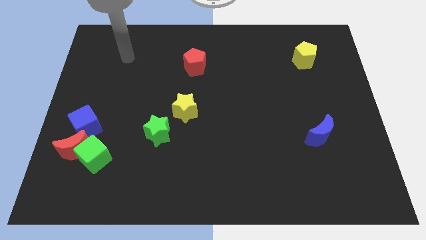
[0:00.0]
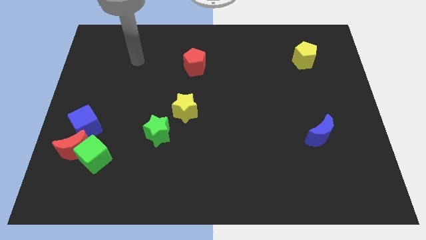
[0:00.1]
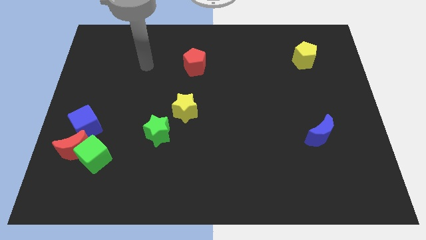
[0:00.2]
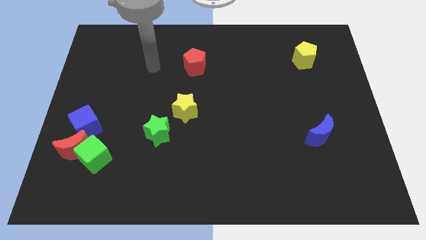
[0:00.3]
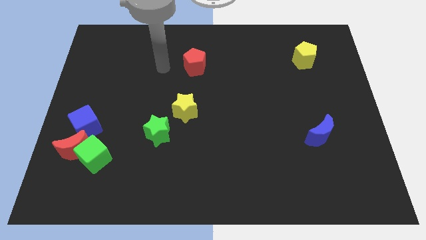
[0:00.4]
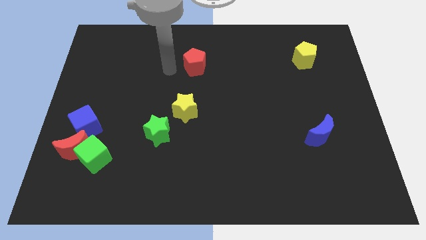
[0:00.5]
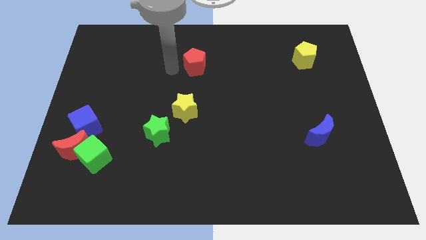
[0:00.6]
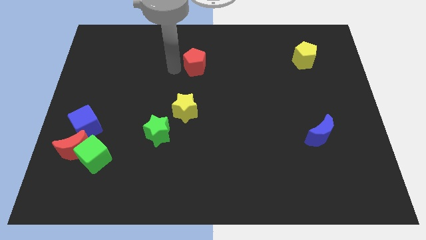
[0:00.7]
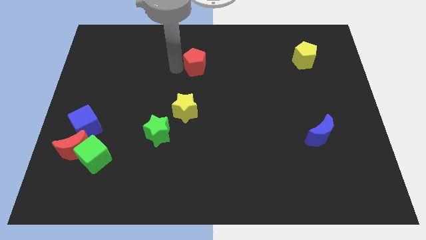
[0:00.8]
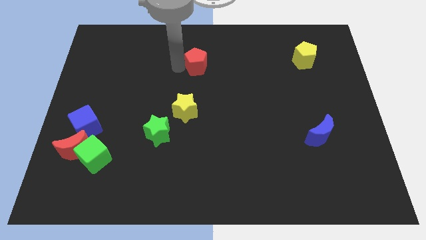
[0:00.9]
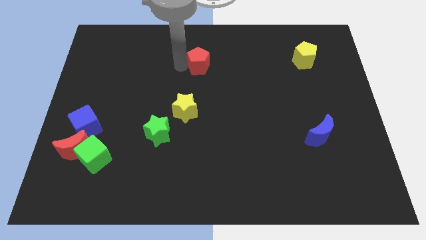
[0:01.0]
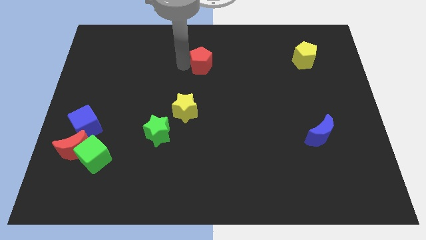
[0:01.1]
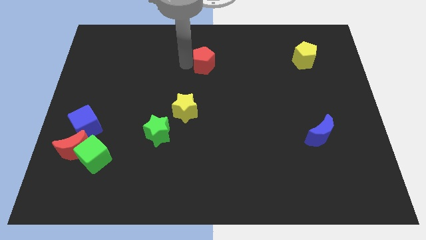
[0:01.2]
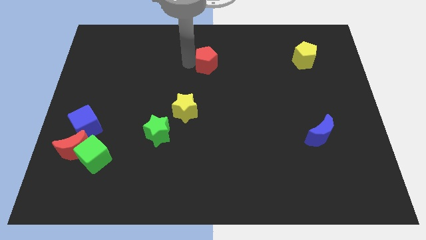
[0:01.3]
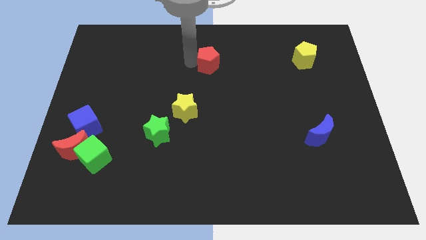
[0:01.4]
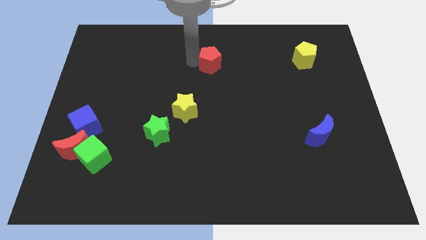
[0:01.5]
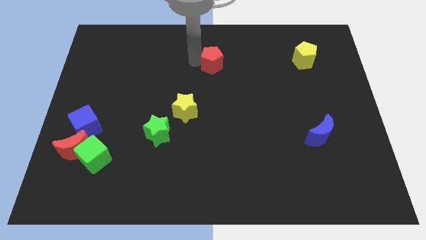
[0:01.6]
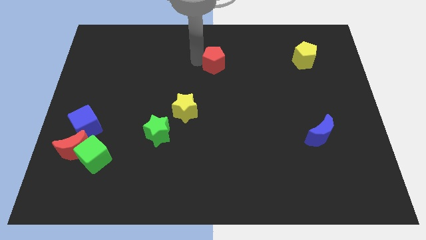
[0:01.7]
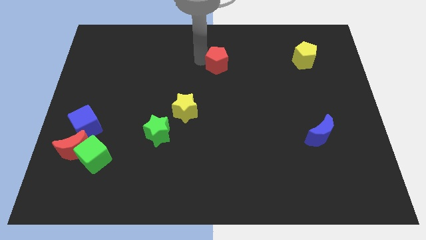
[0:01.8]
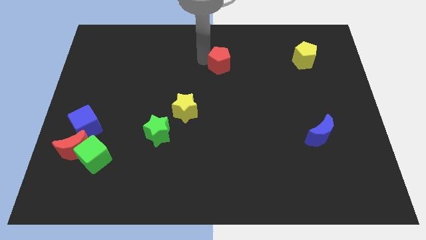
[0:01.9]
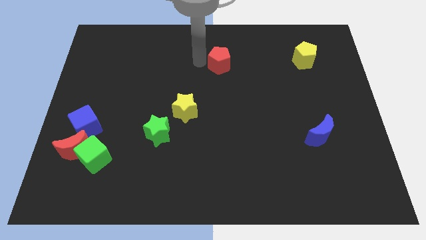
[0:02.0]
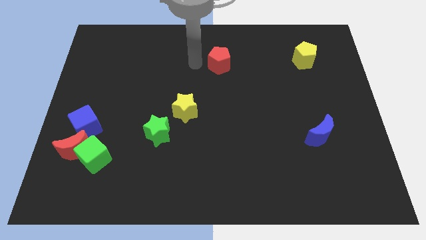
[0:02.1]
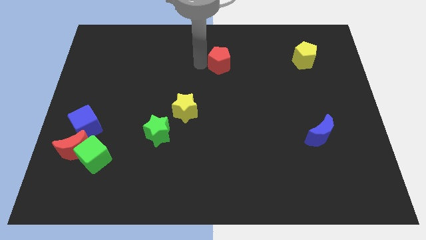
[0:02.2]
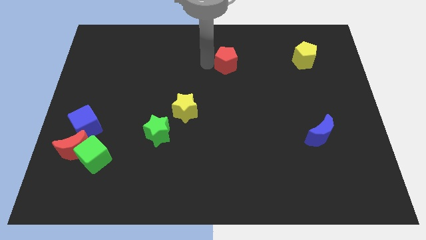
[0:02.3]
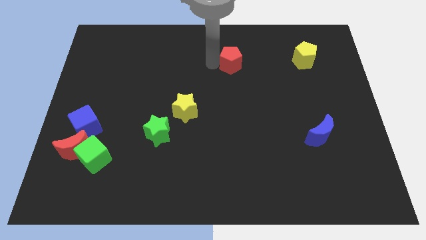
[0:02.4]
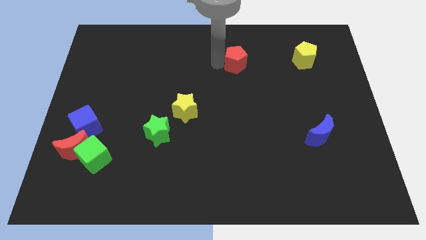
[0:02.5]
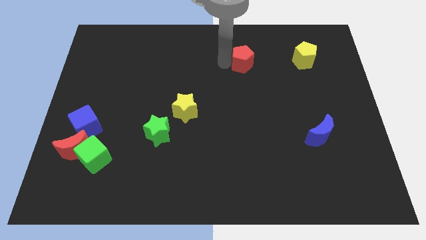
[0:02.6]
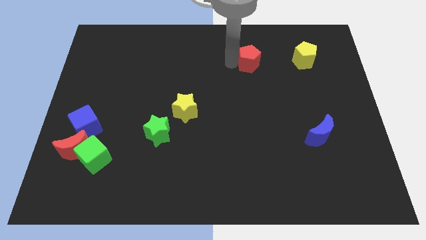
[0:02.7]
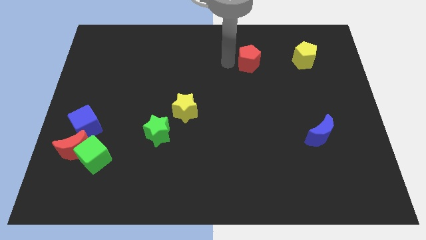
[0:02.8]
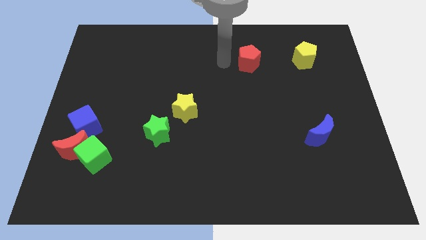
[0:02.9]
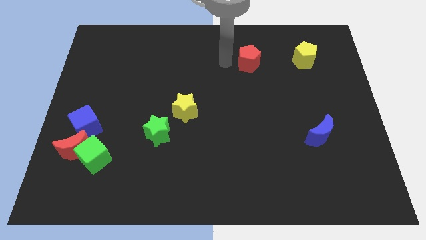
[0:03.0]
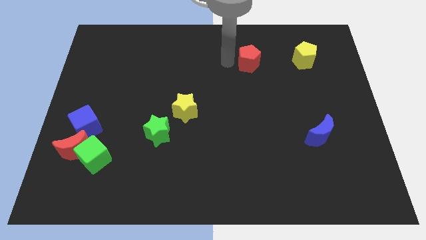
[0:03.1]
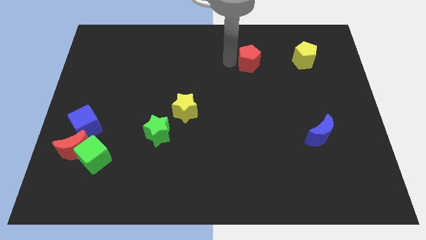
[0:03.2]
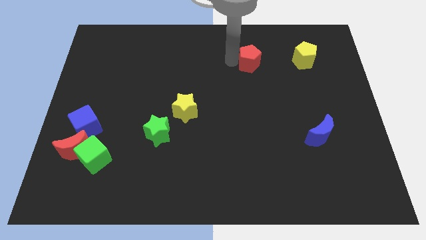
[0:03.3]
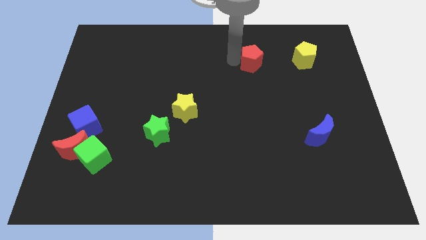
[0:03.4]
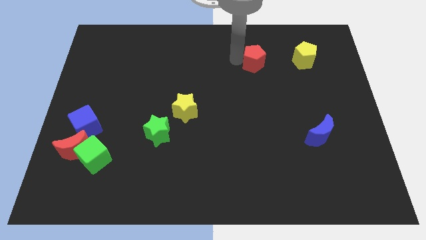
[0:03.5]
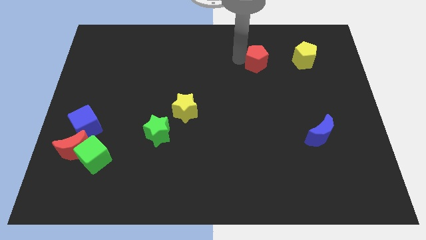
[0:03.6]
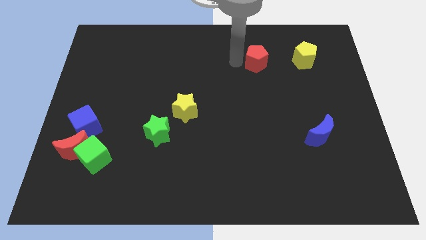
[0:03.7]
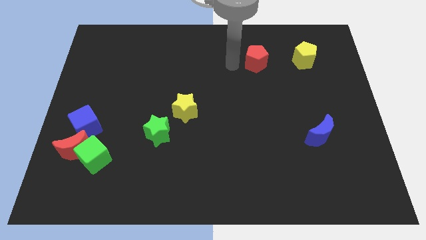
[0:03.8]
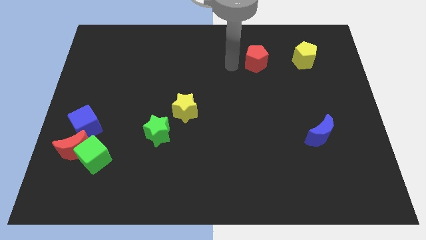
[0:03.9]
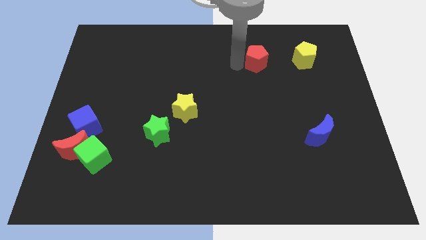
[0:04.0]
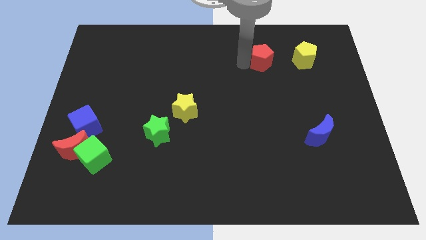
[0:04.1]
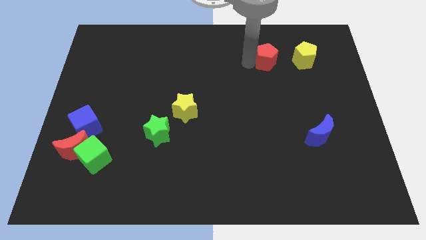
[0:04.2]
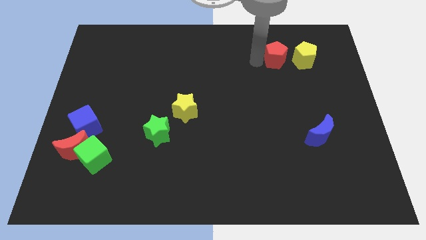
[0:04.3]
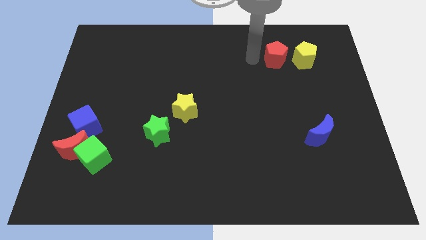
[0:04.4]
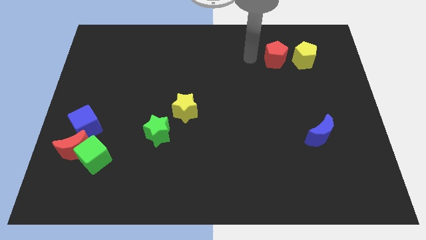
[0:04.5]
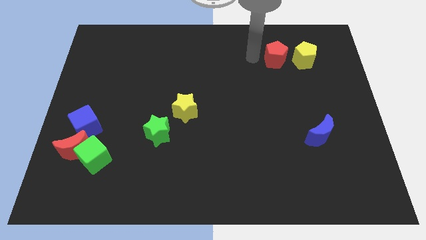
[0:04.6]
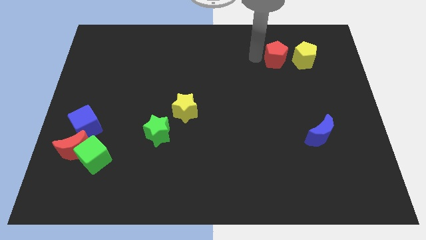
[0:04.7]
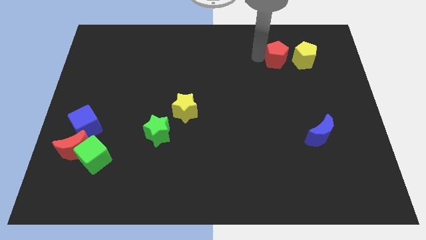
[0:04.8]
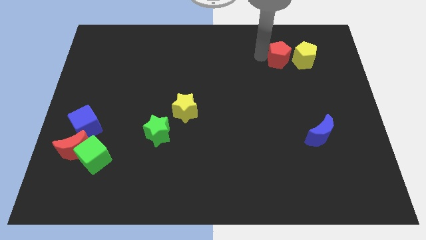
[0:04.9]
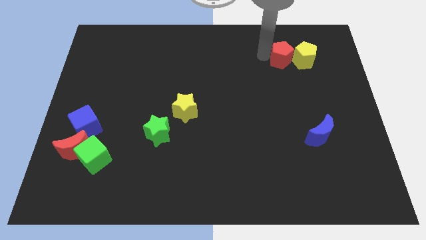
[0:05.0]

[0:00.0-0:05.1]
put the red pentagon towards the yellow pentagon

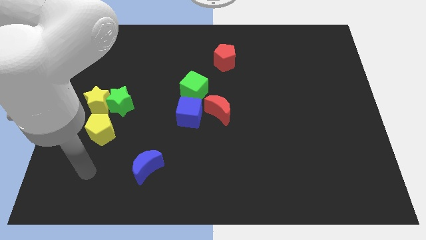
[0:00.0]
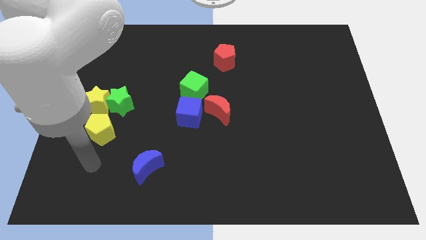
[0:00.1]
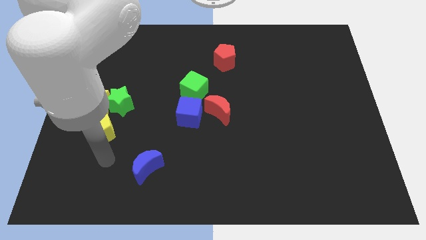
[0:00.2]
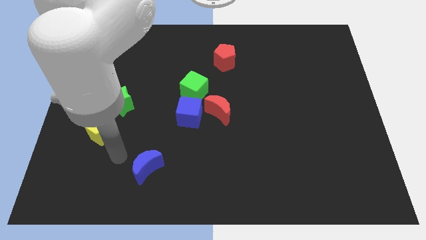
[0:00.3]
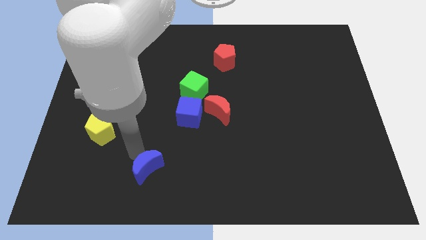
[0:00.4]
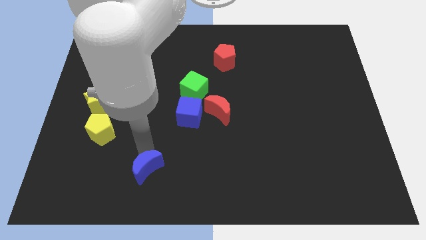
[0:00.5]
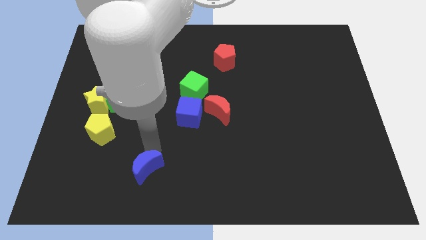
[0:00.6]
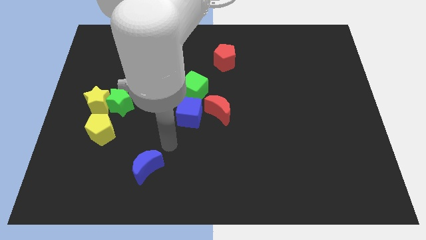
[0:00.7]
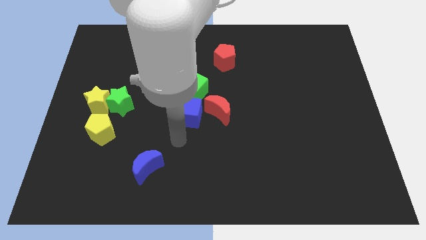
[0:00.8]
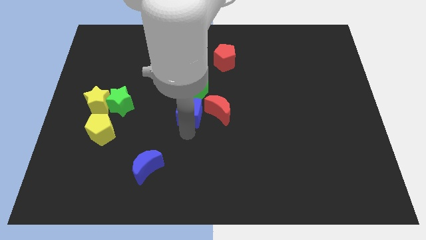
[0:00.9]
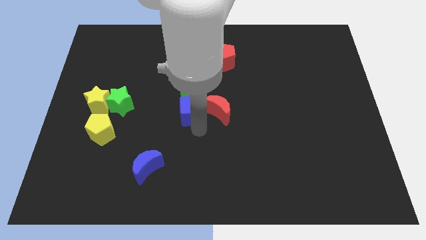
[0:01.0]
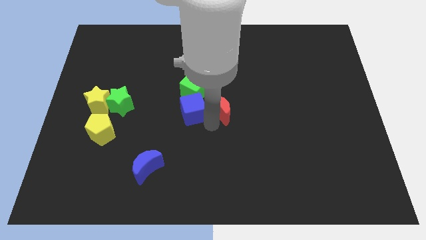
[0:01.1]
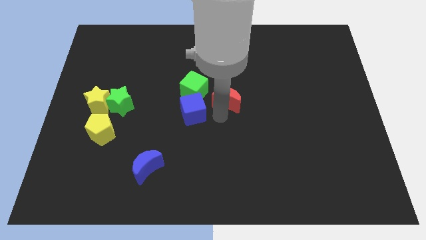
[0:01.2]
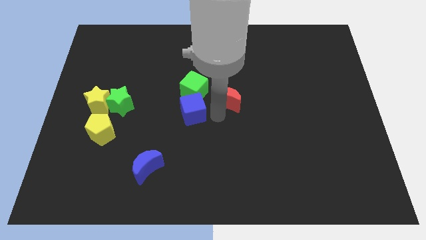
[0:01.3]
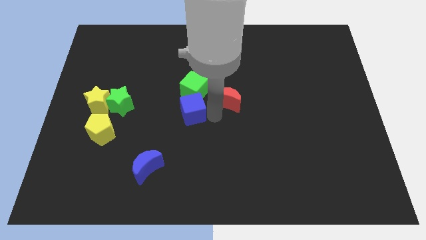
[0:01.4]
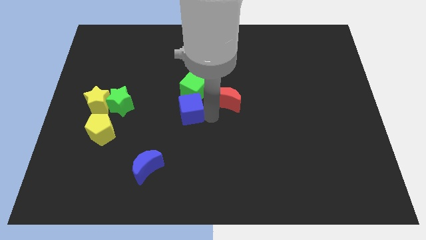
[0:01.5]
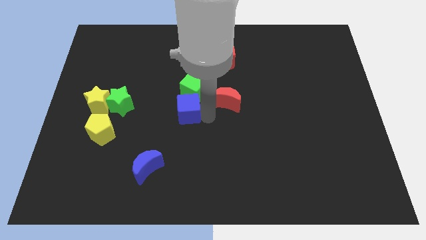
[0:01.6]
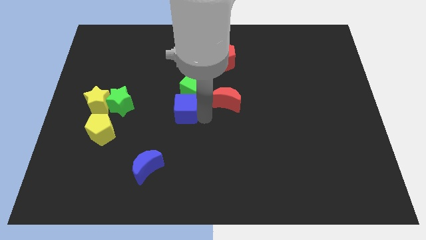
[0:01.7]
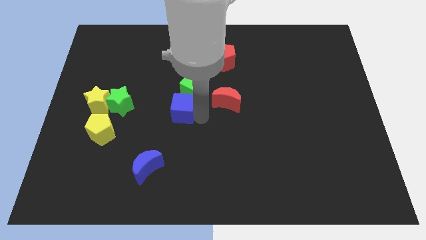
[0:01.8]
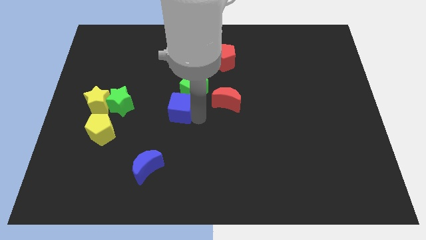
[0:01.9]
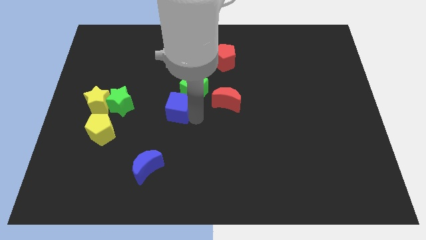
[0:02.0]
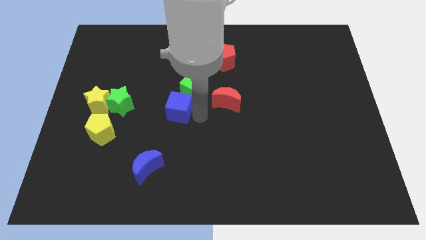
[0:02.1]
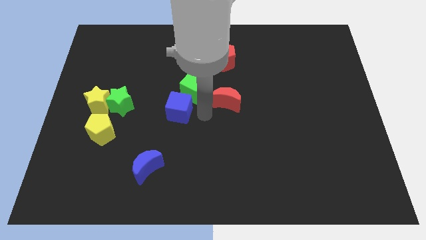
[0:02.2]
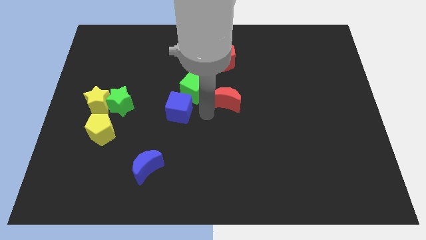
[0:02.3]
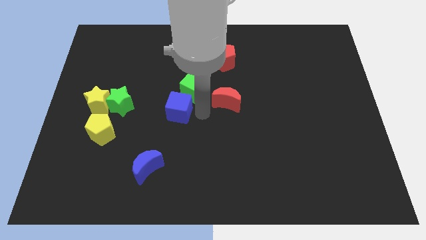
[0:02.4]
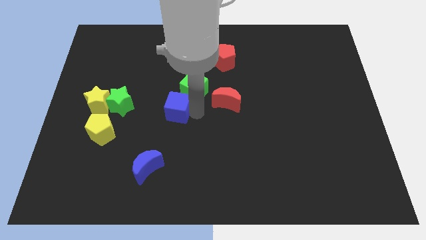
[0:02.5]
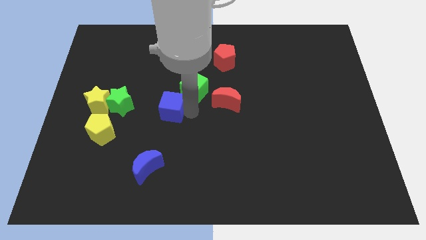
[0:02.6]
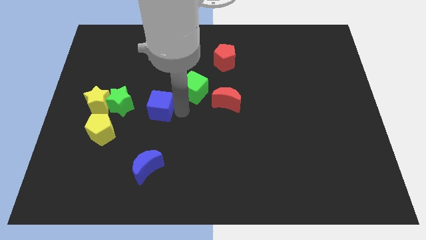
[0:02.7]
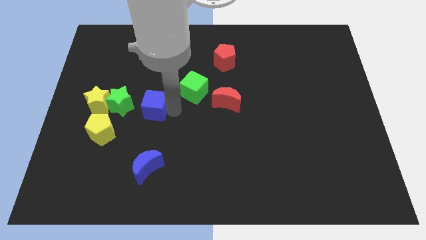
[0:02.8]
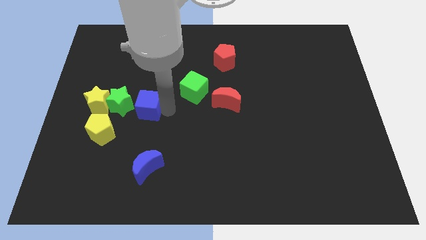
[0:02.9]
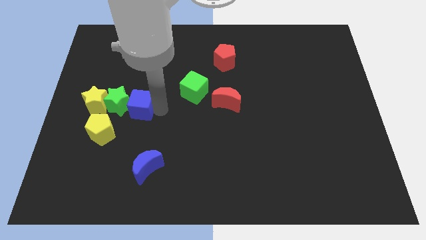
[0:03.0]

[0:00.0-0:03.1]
slide the blue cube next to the green star
